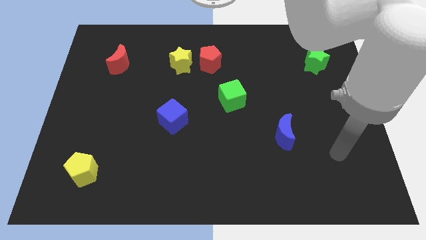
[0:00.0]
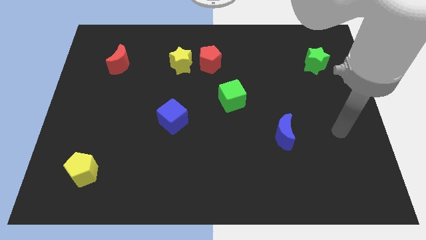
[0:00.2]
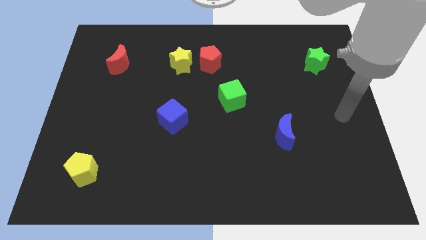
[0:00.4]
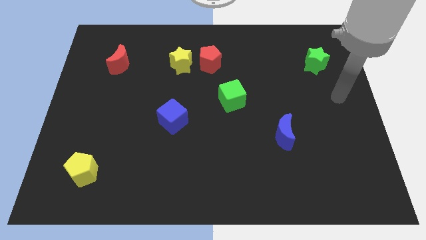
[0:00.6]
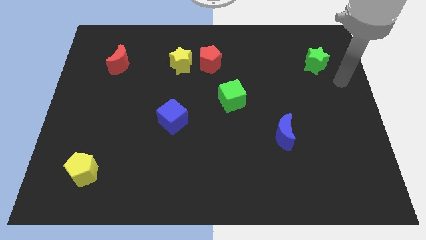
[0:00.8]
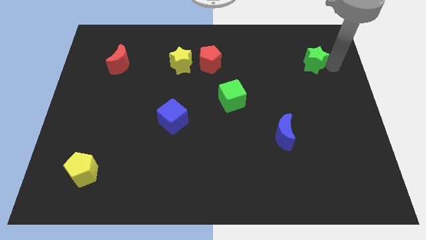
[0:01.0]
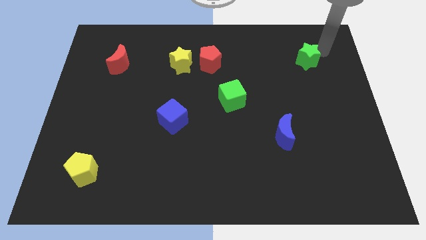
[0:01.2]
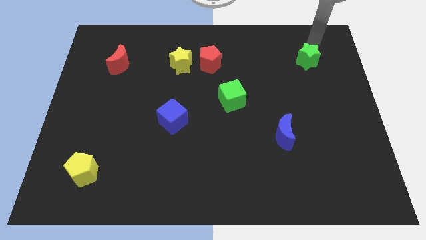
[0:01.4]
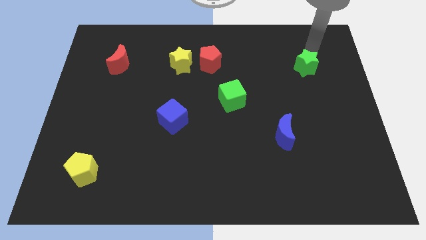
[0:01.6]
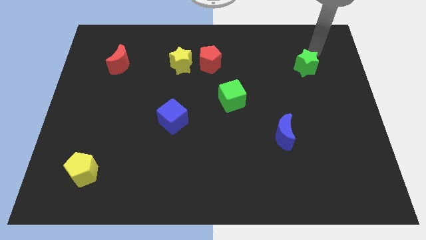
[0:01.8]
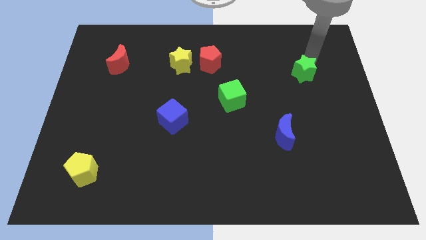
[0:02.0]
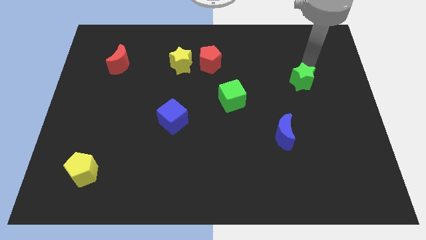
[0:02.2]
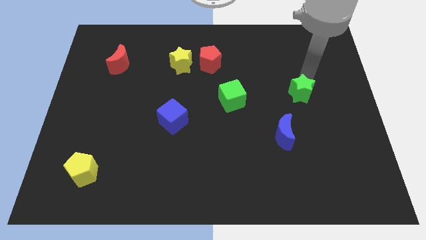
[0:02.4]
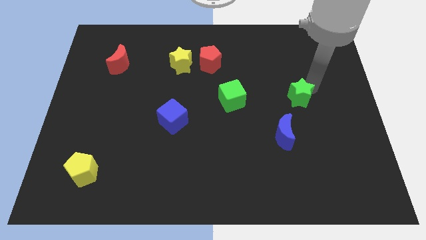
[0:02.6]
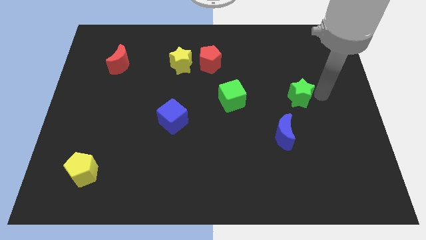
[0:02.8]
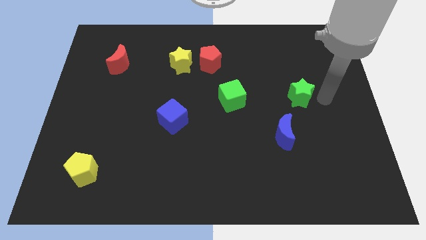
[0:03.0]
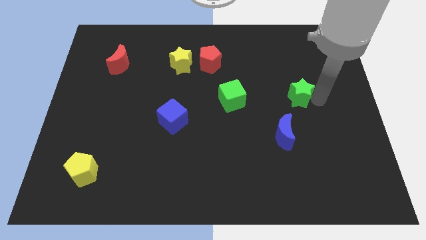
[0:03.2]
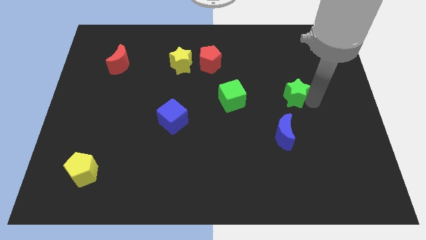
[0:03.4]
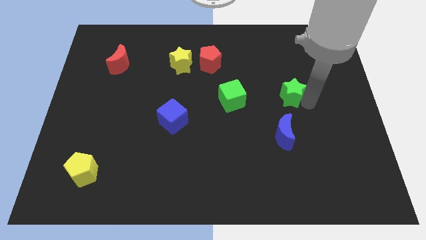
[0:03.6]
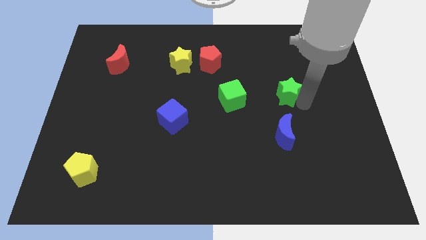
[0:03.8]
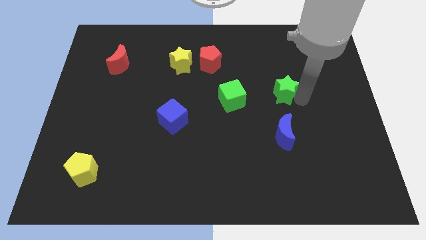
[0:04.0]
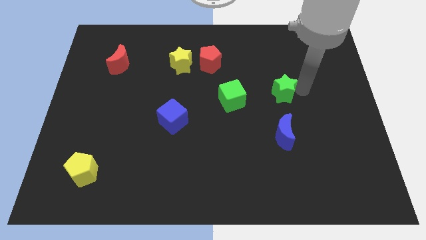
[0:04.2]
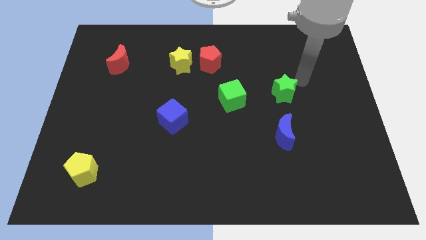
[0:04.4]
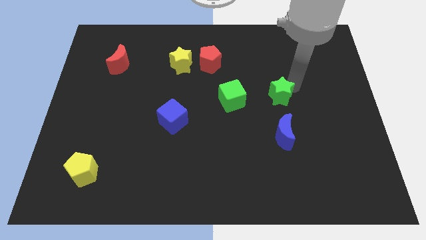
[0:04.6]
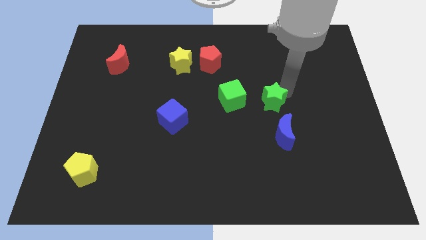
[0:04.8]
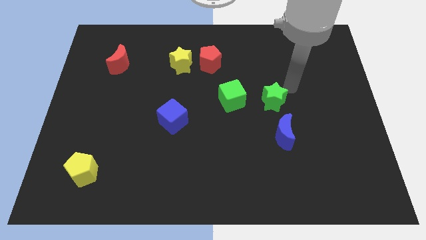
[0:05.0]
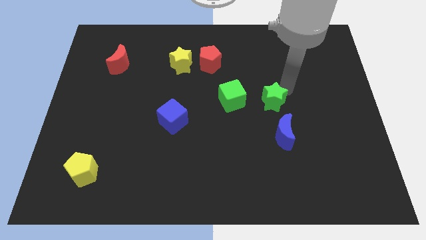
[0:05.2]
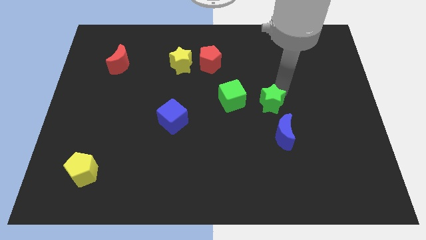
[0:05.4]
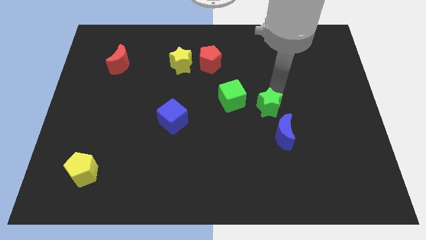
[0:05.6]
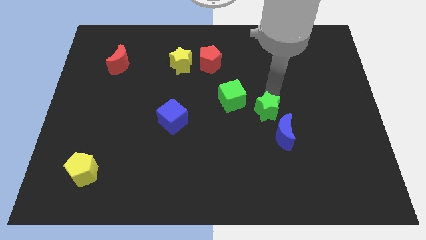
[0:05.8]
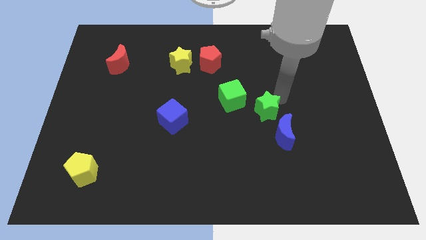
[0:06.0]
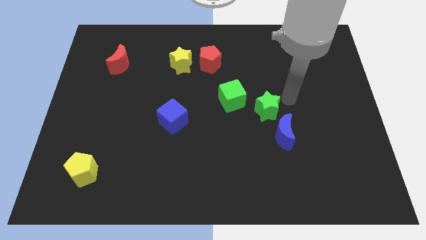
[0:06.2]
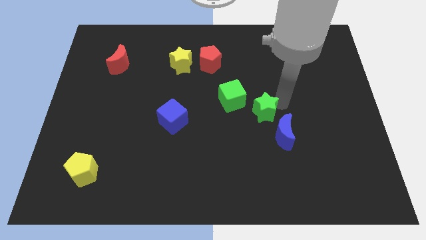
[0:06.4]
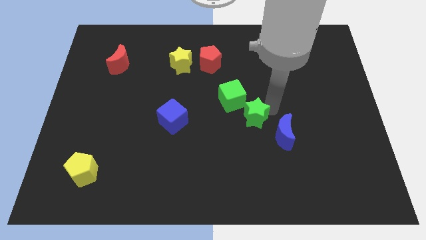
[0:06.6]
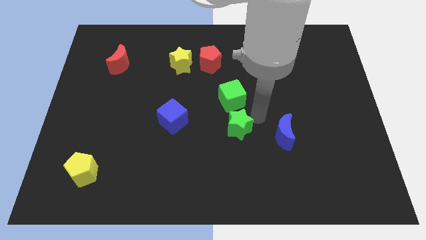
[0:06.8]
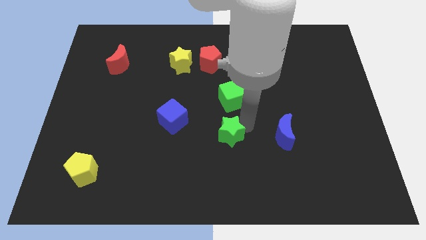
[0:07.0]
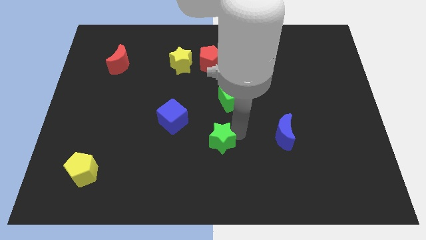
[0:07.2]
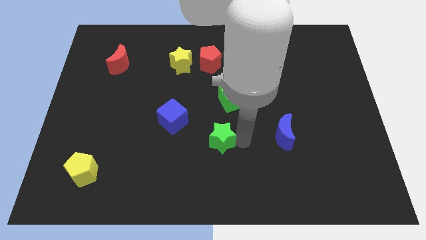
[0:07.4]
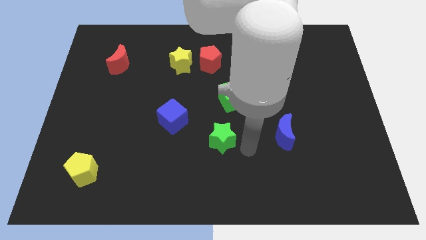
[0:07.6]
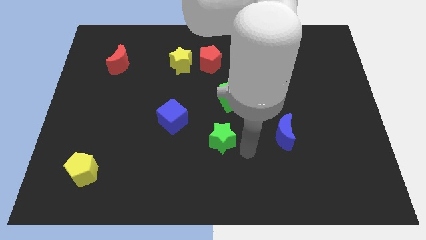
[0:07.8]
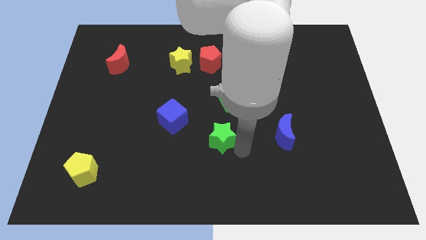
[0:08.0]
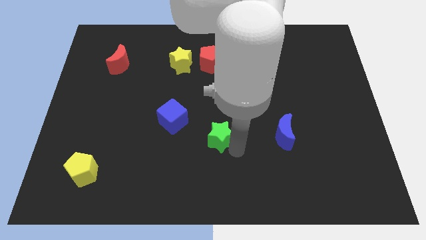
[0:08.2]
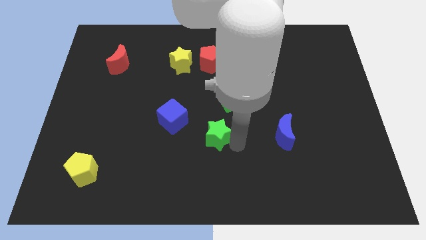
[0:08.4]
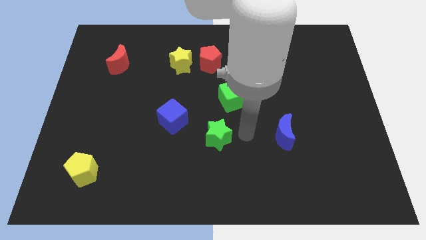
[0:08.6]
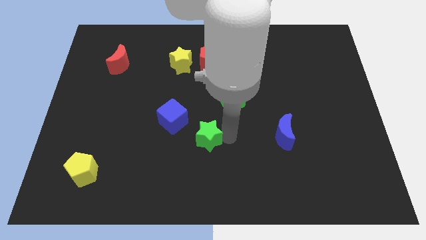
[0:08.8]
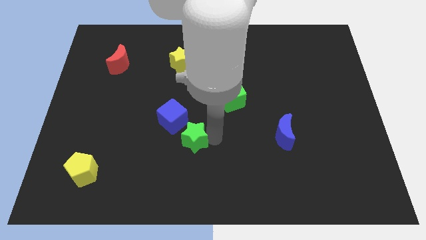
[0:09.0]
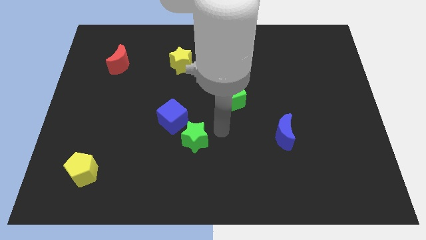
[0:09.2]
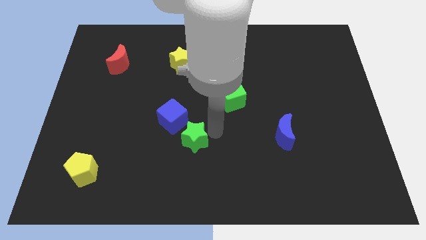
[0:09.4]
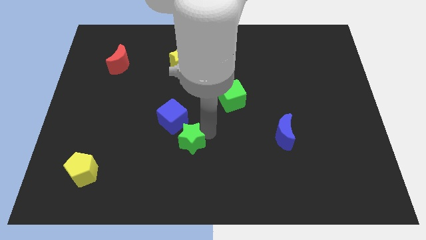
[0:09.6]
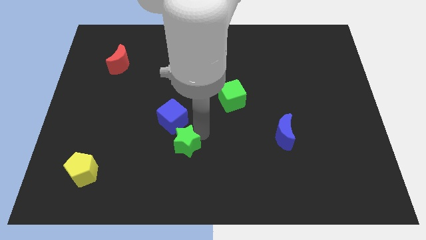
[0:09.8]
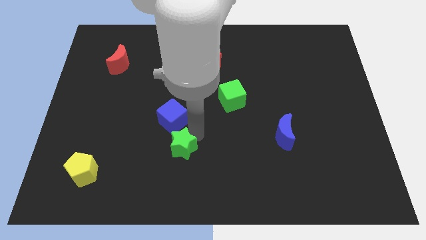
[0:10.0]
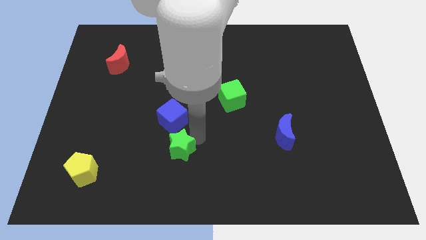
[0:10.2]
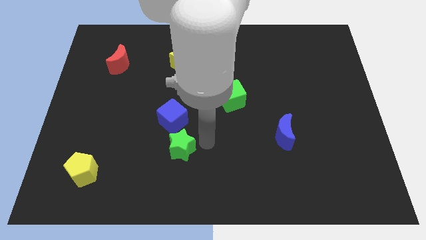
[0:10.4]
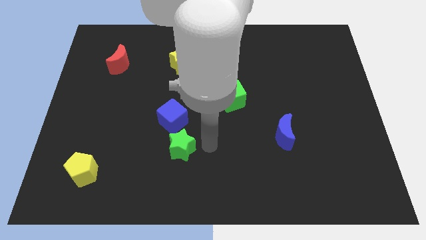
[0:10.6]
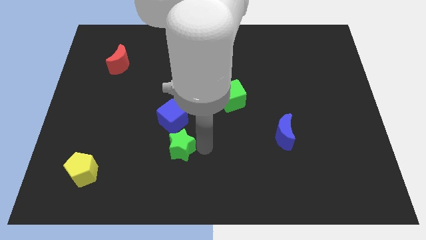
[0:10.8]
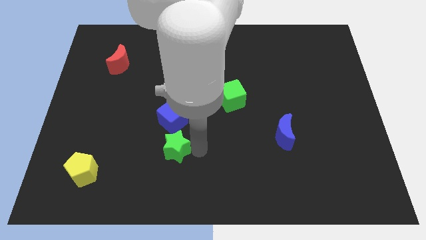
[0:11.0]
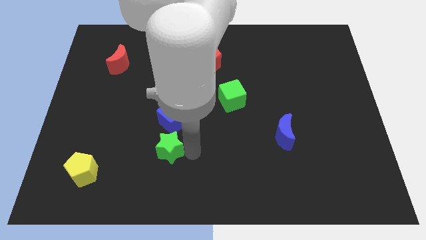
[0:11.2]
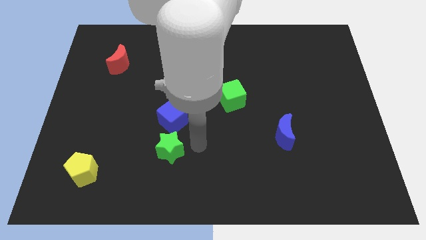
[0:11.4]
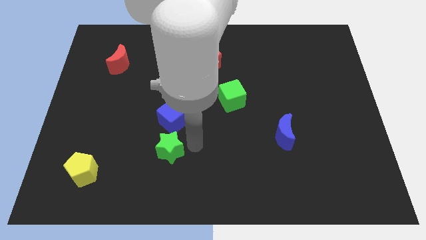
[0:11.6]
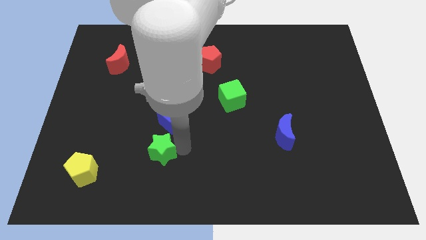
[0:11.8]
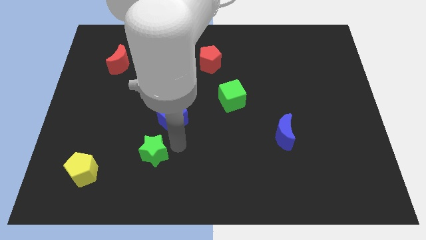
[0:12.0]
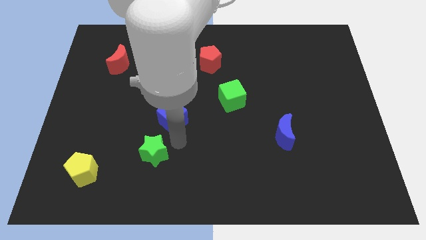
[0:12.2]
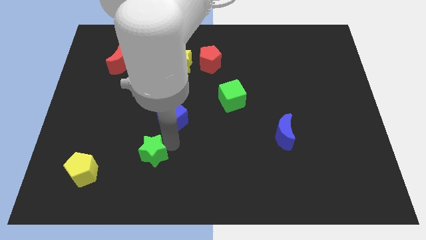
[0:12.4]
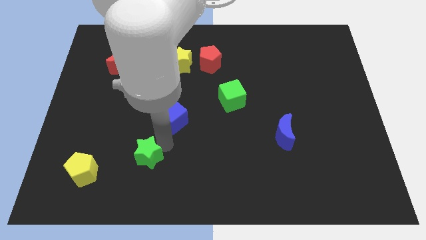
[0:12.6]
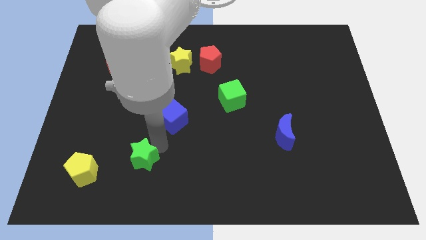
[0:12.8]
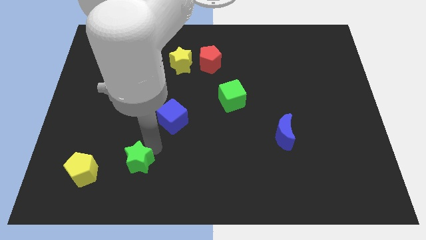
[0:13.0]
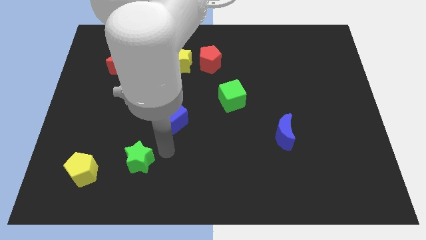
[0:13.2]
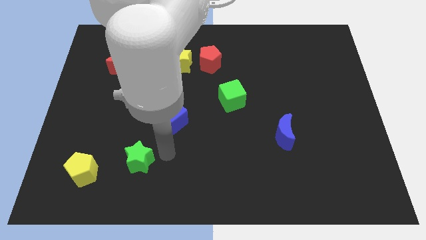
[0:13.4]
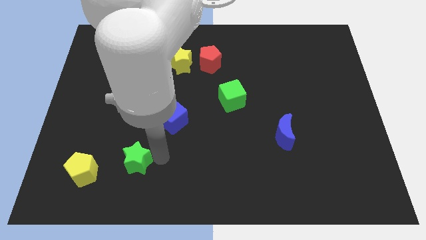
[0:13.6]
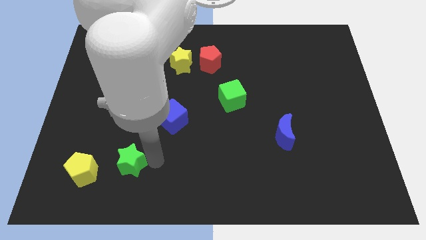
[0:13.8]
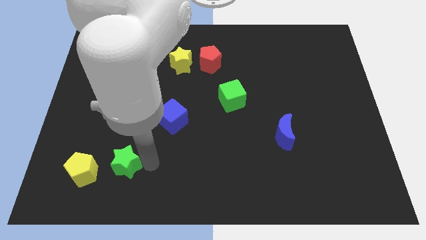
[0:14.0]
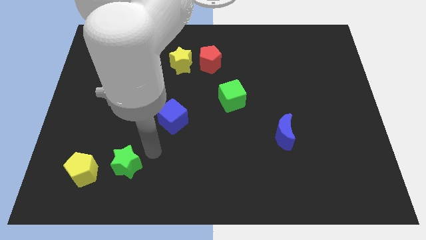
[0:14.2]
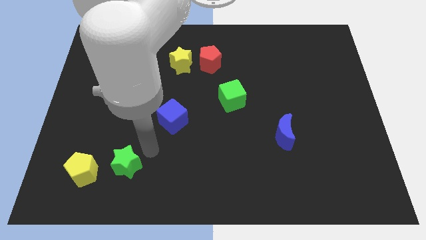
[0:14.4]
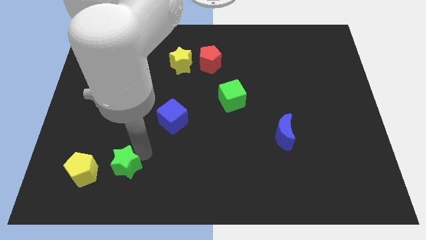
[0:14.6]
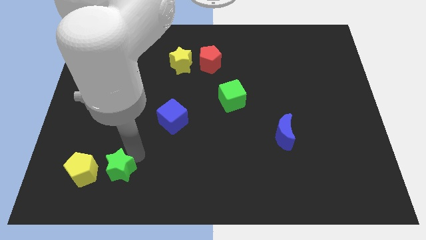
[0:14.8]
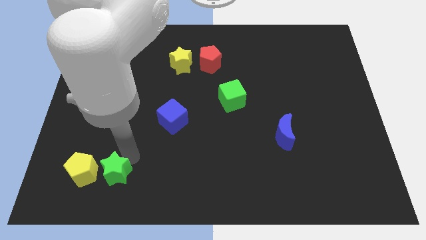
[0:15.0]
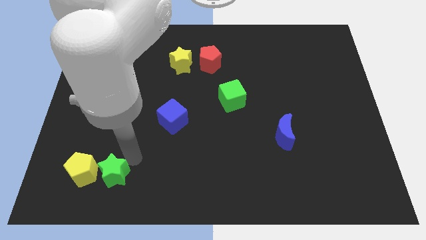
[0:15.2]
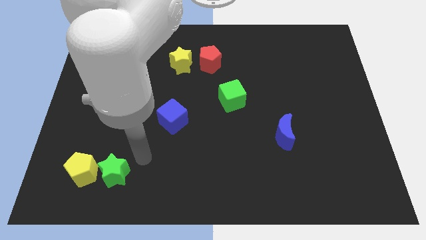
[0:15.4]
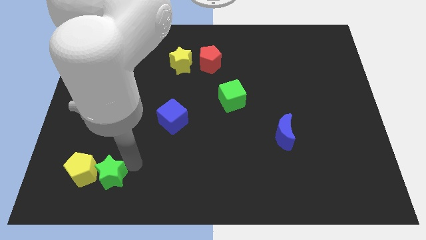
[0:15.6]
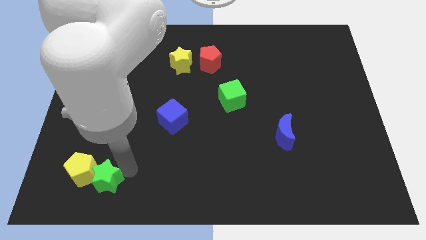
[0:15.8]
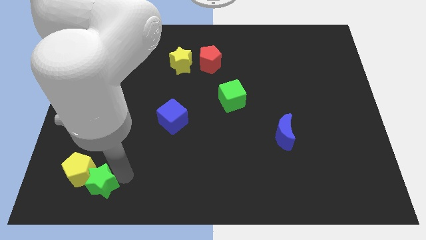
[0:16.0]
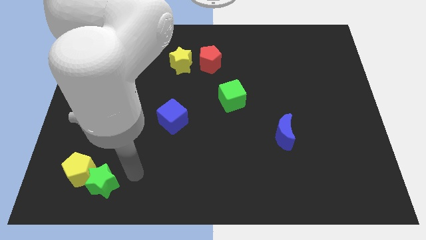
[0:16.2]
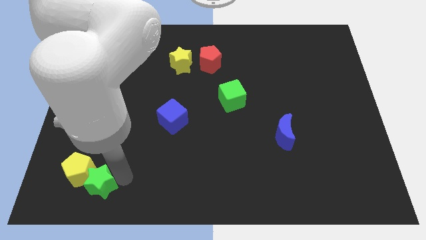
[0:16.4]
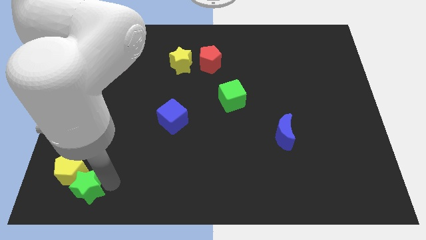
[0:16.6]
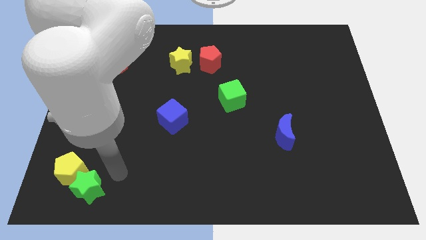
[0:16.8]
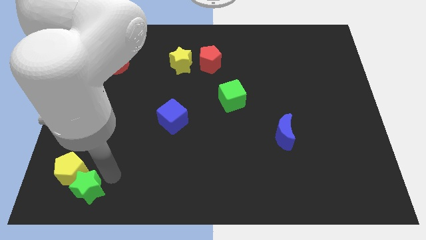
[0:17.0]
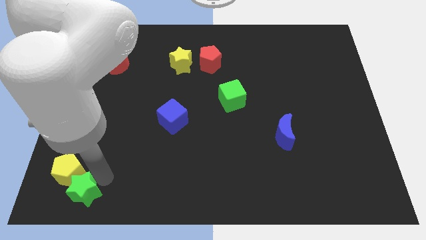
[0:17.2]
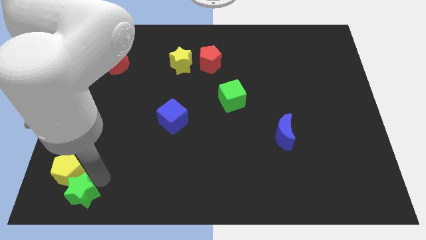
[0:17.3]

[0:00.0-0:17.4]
put the green star to the bottom left of the board
